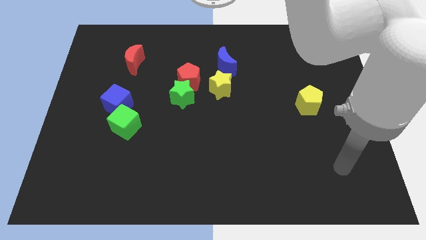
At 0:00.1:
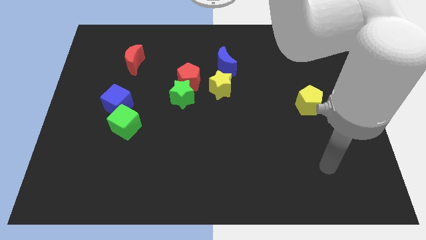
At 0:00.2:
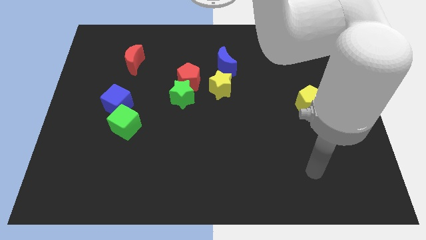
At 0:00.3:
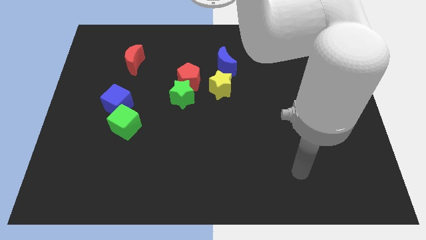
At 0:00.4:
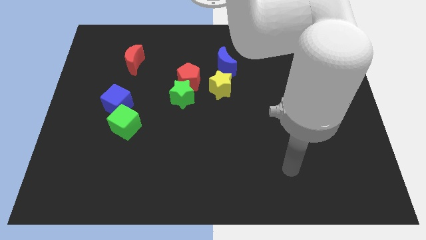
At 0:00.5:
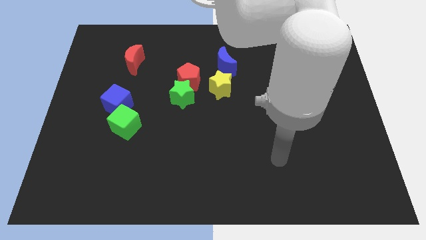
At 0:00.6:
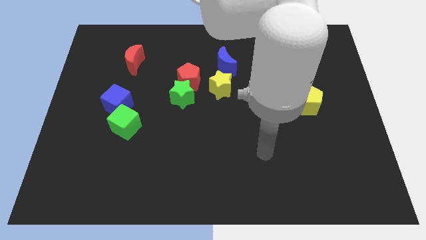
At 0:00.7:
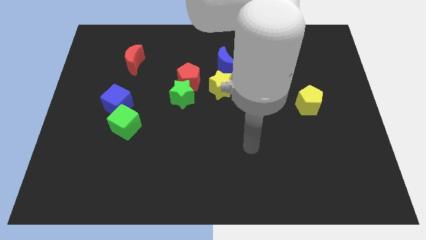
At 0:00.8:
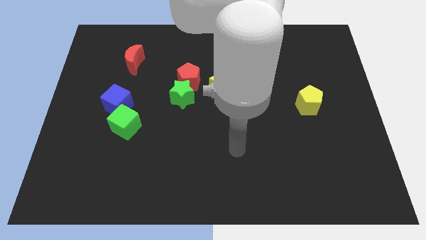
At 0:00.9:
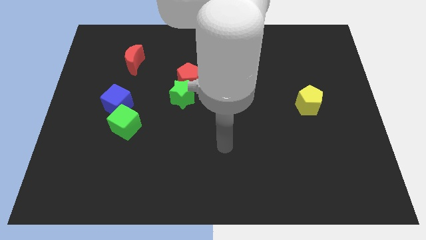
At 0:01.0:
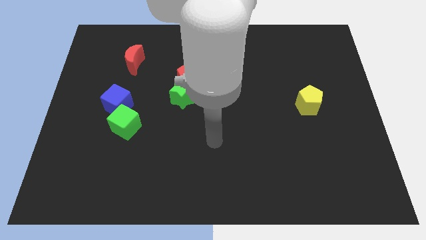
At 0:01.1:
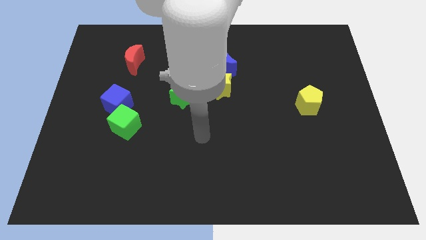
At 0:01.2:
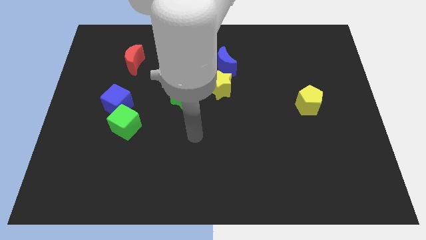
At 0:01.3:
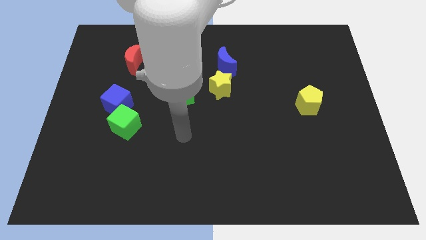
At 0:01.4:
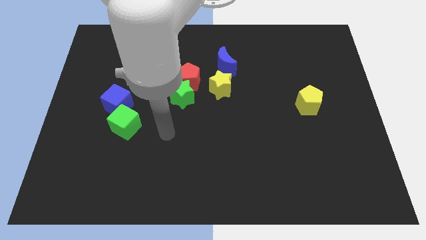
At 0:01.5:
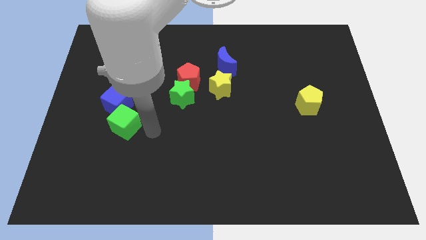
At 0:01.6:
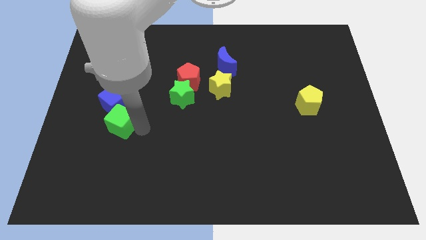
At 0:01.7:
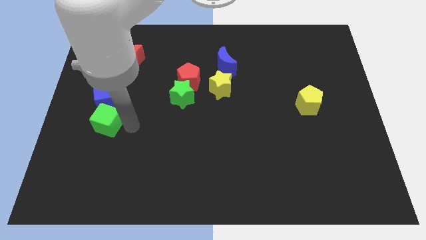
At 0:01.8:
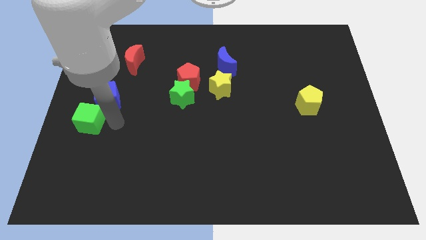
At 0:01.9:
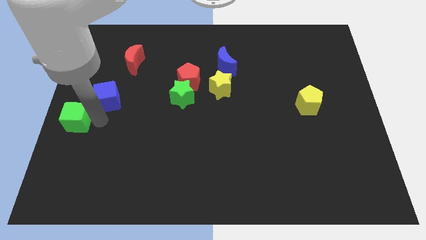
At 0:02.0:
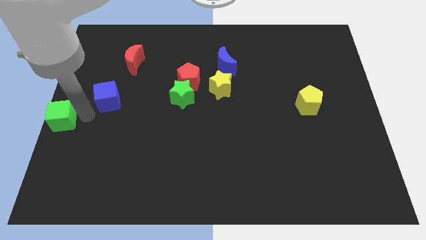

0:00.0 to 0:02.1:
pull the blue cube apart from the green cube

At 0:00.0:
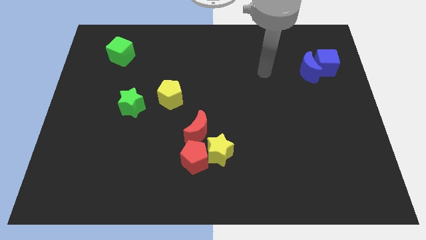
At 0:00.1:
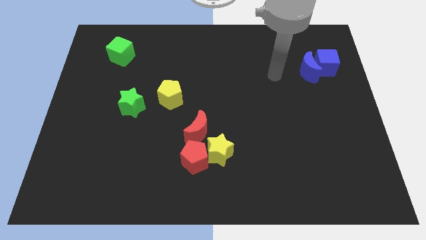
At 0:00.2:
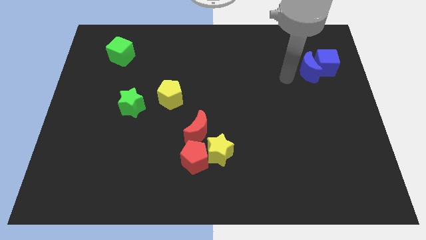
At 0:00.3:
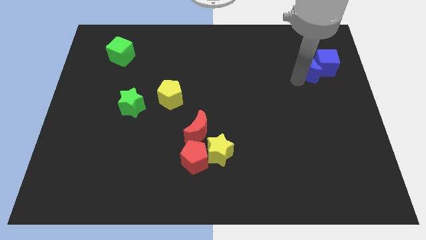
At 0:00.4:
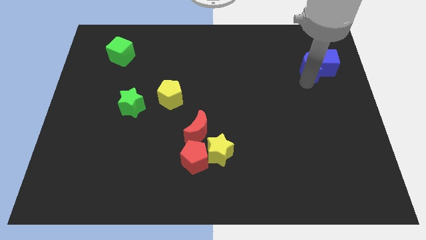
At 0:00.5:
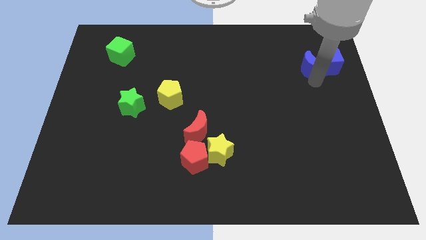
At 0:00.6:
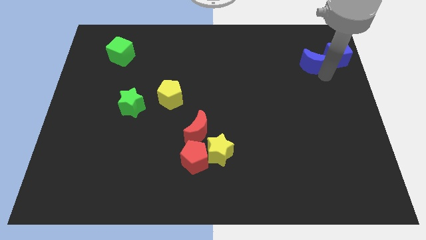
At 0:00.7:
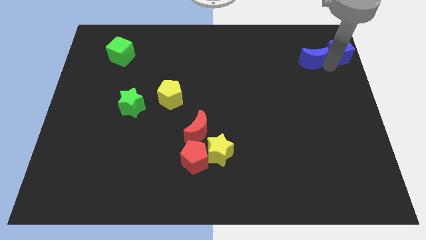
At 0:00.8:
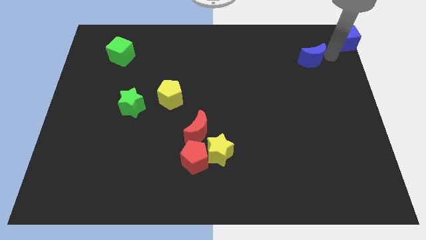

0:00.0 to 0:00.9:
move the blue moon away from the blue cube

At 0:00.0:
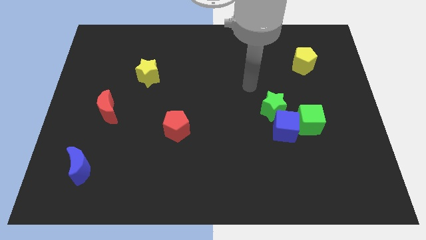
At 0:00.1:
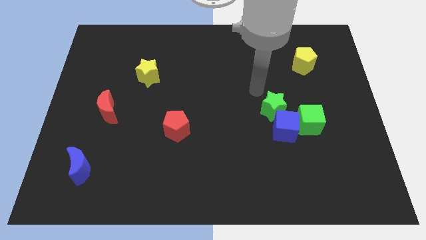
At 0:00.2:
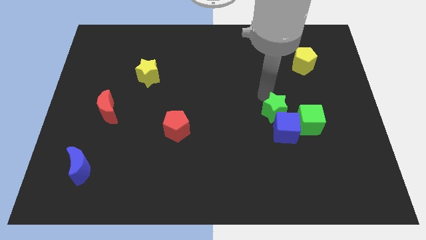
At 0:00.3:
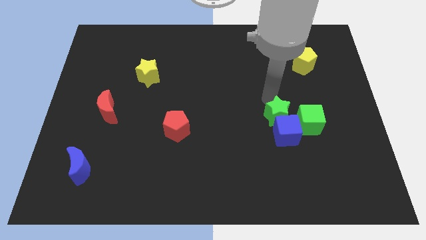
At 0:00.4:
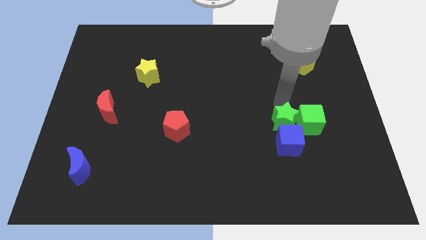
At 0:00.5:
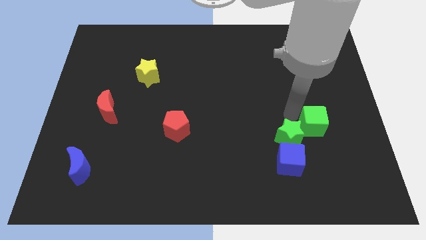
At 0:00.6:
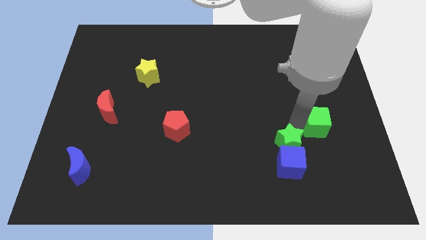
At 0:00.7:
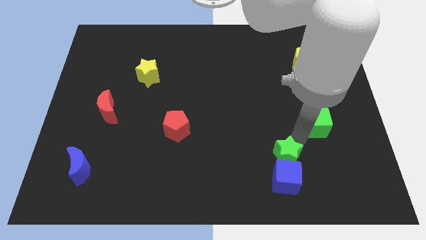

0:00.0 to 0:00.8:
move the blue cube away from the green cube and green star

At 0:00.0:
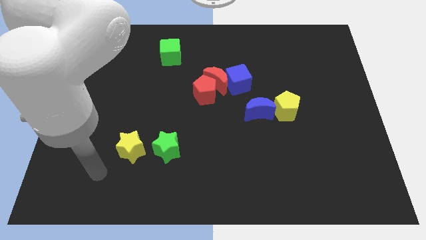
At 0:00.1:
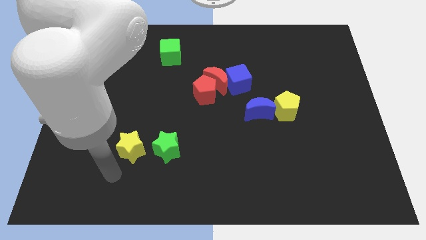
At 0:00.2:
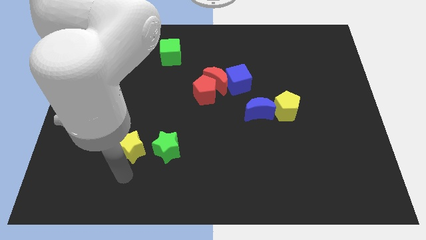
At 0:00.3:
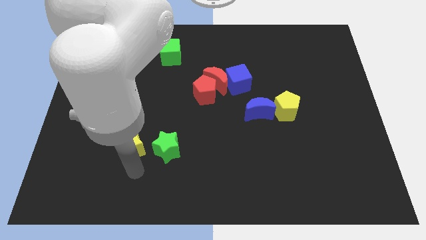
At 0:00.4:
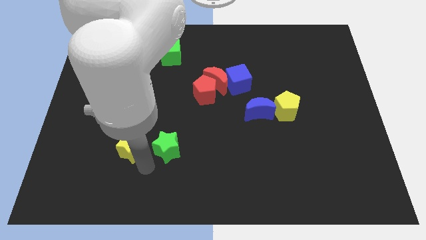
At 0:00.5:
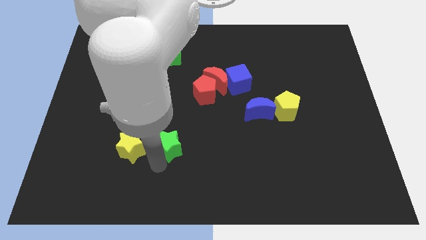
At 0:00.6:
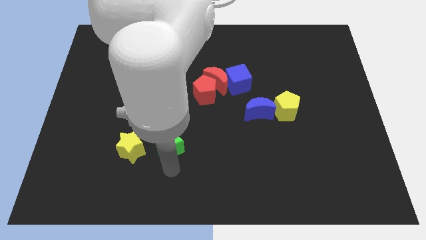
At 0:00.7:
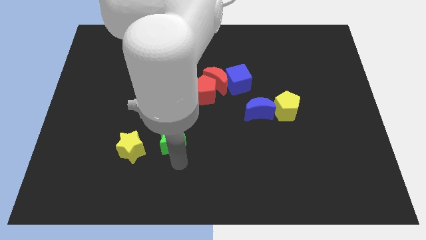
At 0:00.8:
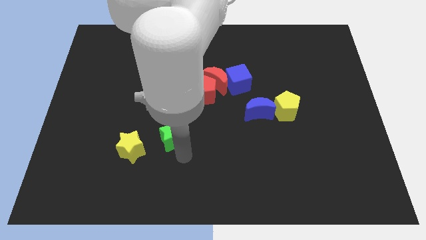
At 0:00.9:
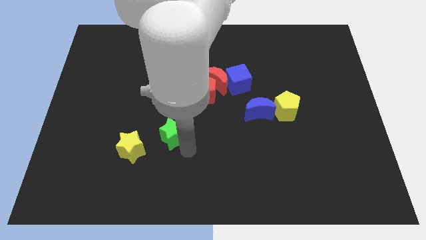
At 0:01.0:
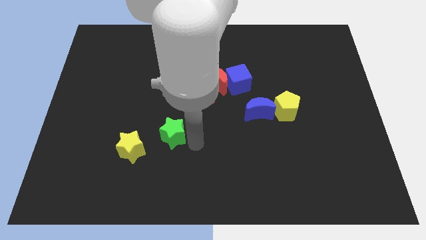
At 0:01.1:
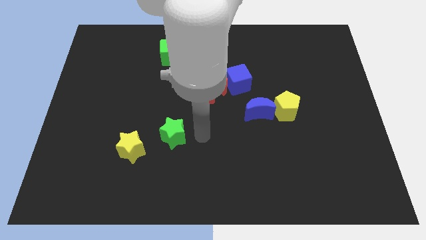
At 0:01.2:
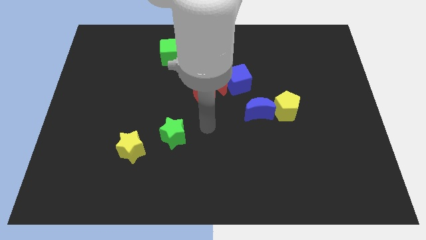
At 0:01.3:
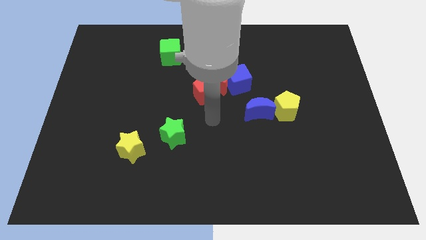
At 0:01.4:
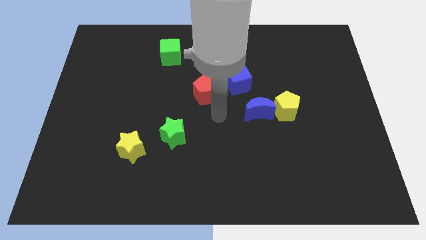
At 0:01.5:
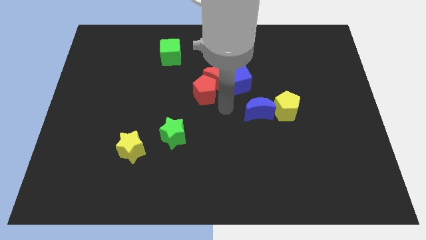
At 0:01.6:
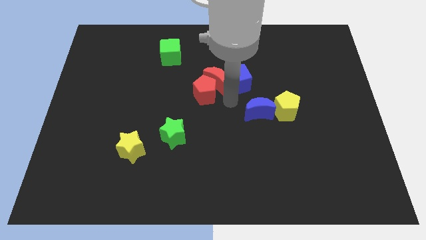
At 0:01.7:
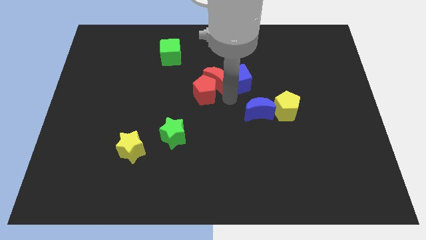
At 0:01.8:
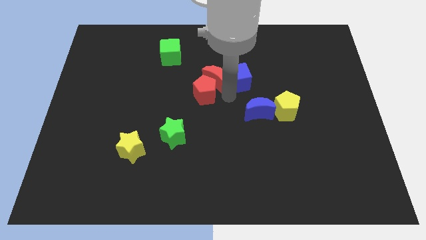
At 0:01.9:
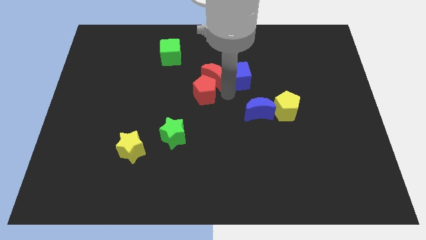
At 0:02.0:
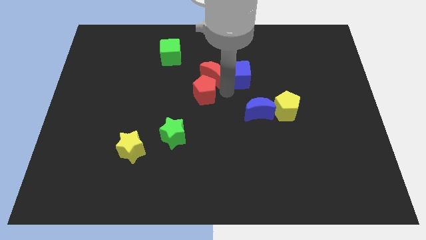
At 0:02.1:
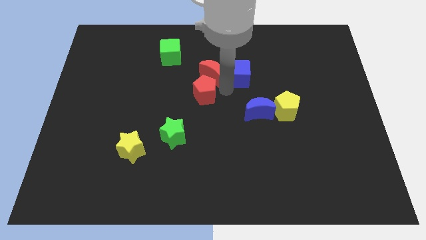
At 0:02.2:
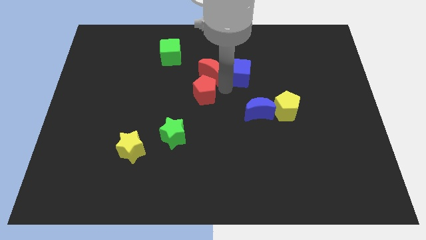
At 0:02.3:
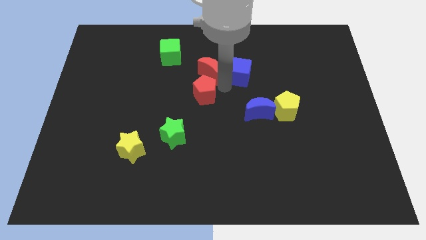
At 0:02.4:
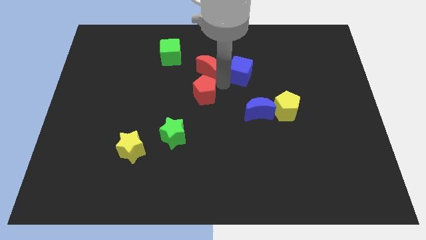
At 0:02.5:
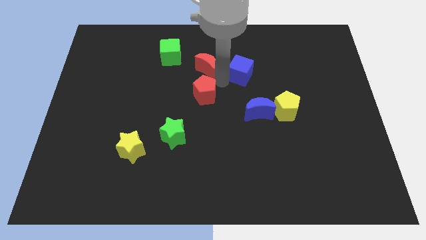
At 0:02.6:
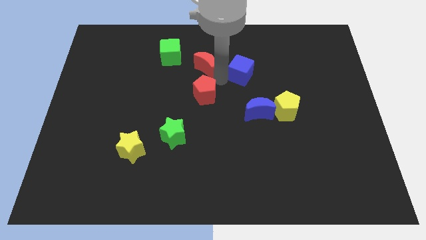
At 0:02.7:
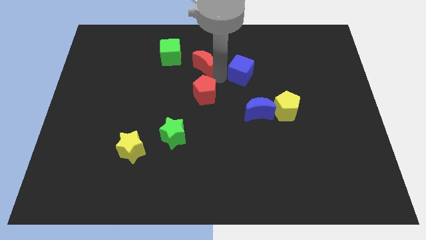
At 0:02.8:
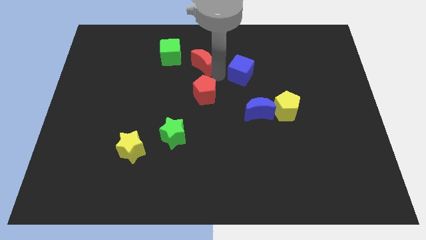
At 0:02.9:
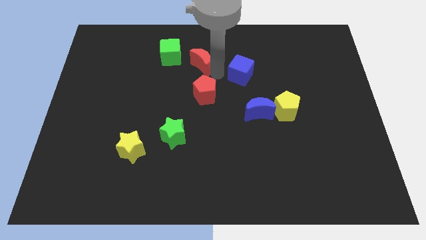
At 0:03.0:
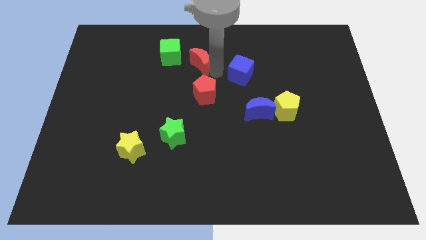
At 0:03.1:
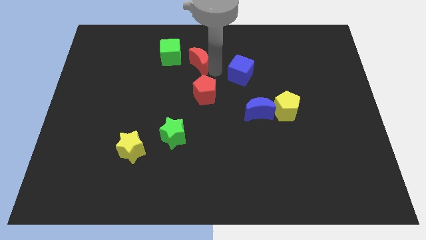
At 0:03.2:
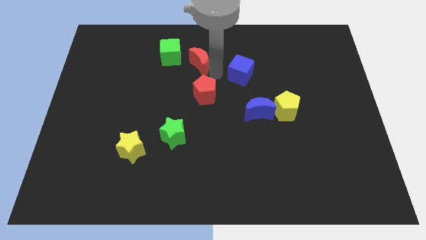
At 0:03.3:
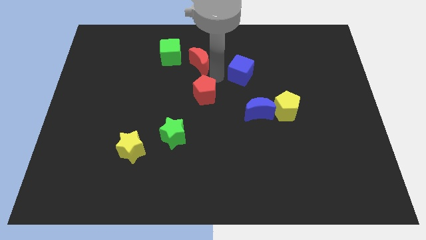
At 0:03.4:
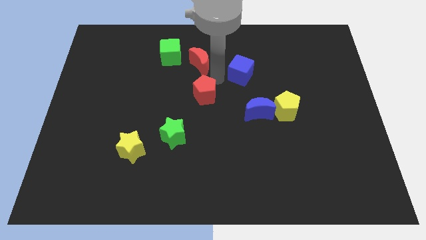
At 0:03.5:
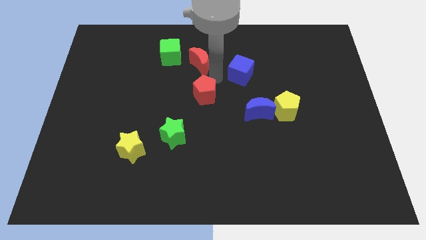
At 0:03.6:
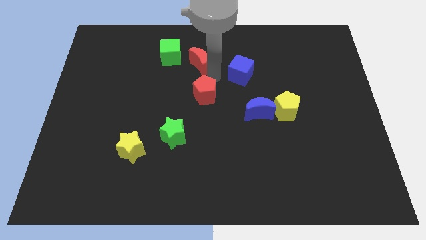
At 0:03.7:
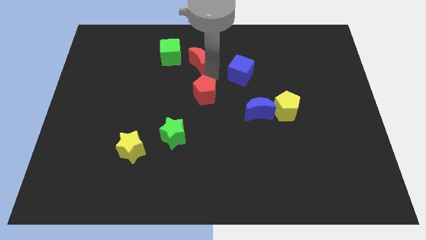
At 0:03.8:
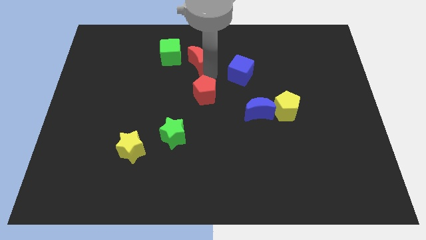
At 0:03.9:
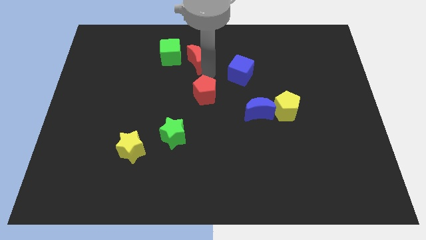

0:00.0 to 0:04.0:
move the red moon away from the red pentagon and blue cube

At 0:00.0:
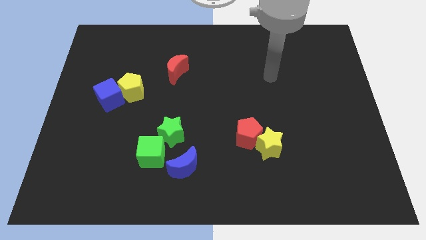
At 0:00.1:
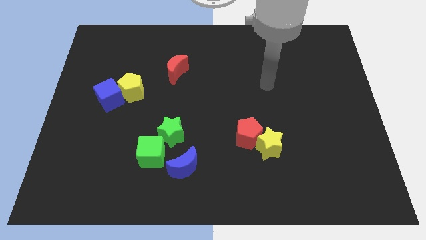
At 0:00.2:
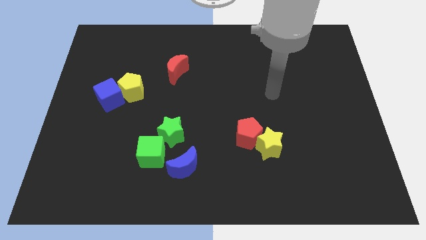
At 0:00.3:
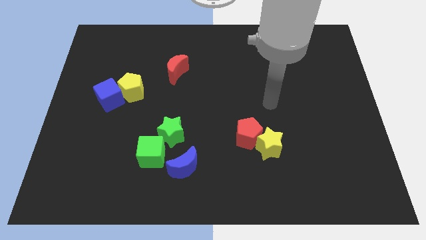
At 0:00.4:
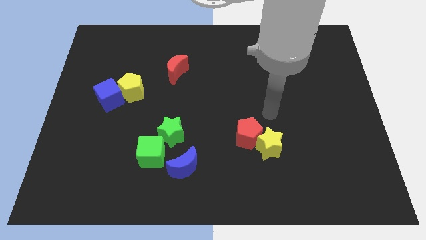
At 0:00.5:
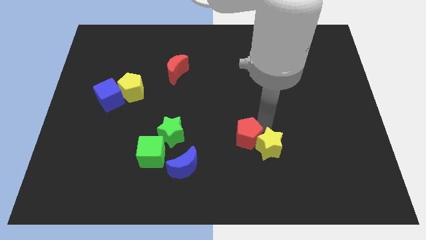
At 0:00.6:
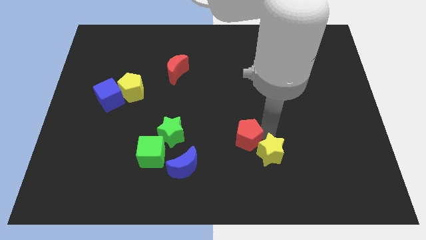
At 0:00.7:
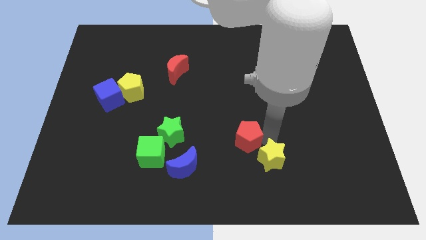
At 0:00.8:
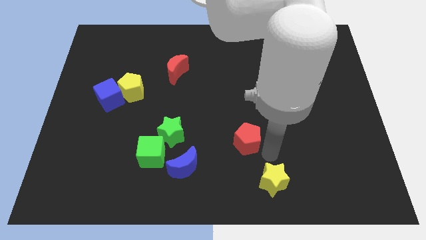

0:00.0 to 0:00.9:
pull the red pentagon apart from the yellow star

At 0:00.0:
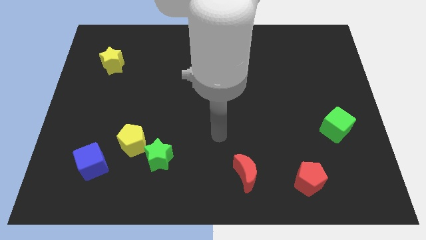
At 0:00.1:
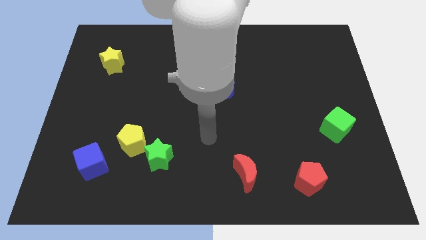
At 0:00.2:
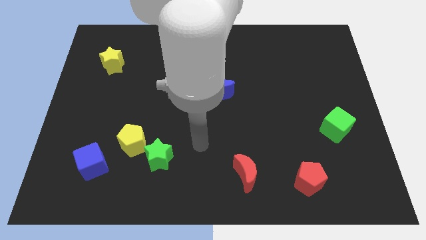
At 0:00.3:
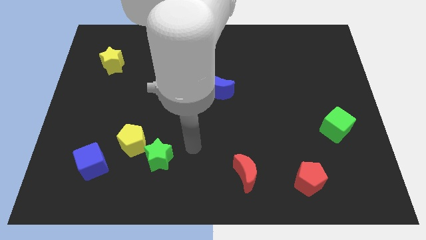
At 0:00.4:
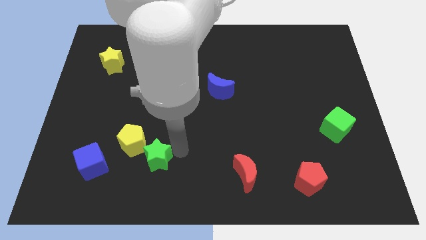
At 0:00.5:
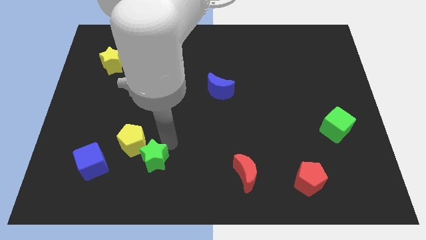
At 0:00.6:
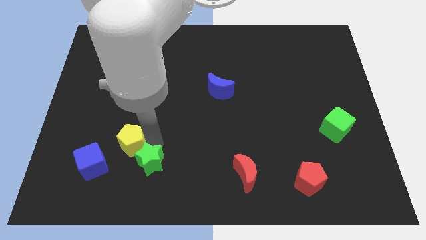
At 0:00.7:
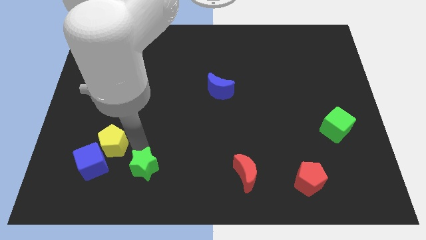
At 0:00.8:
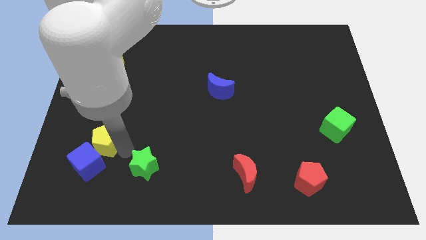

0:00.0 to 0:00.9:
separate the green star from the yellow pentagon
